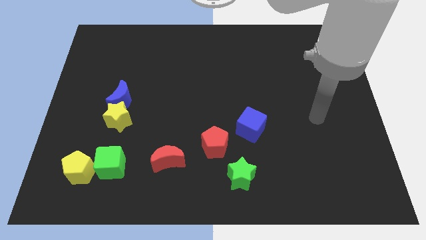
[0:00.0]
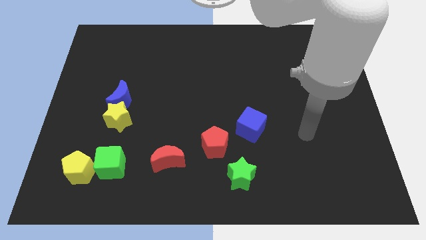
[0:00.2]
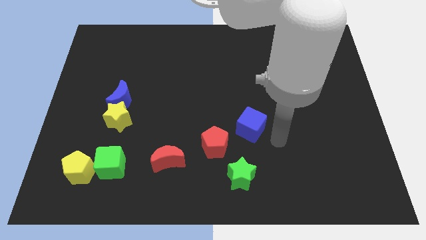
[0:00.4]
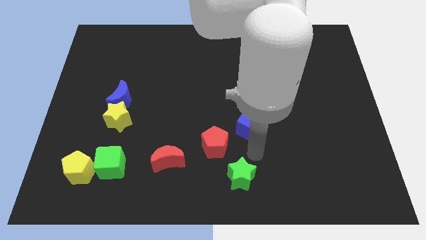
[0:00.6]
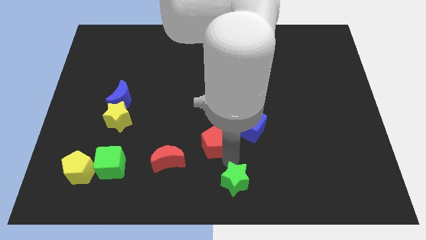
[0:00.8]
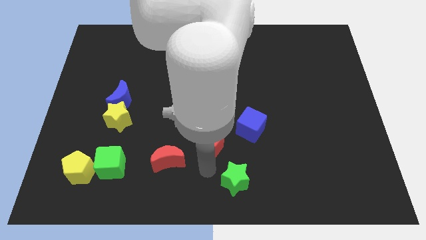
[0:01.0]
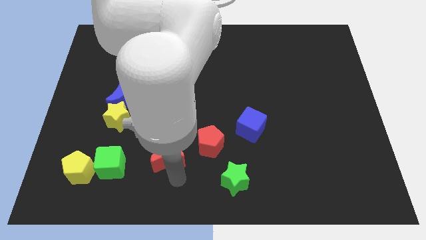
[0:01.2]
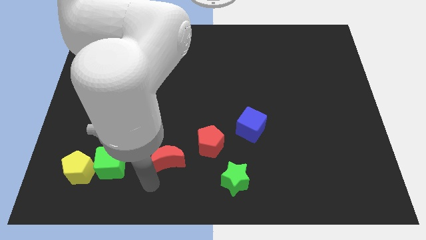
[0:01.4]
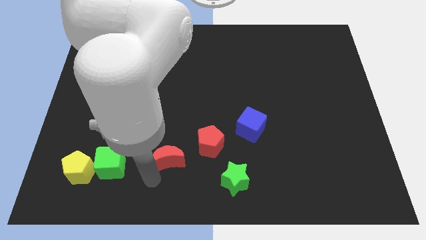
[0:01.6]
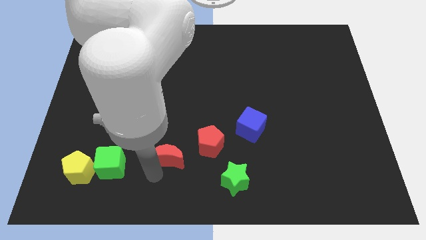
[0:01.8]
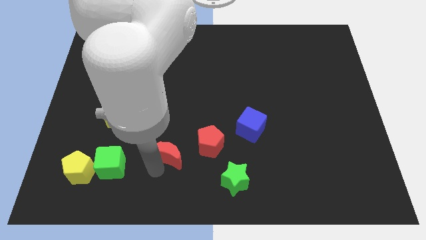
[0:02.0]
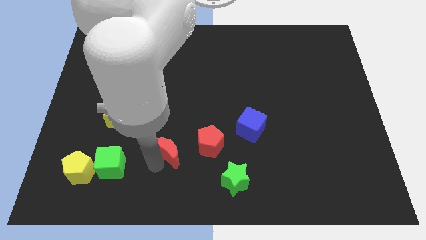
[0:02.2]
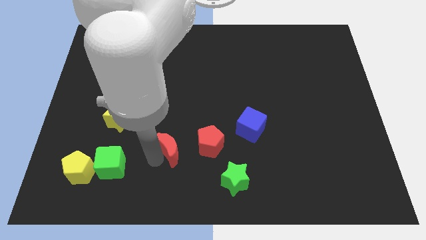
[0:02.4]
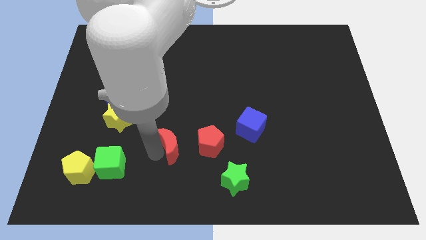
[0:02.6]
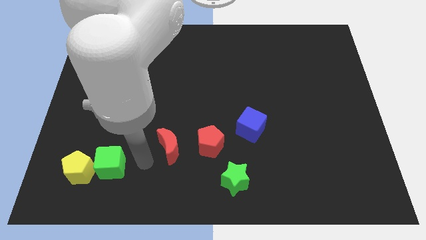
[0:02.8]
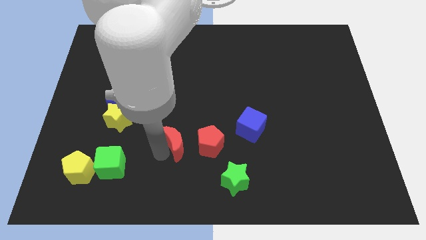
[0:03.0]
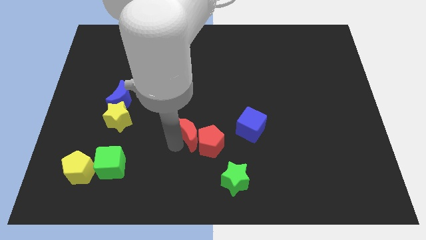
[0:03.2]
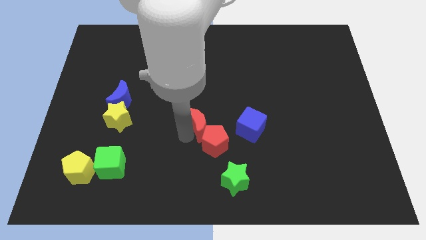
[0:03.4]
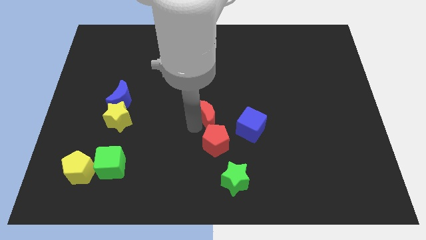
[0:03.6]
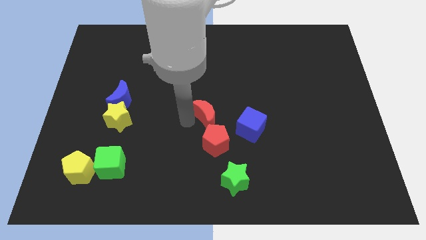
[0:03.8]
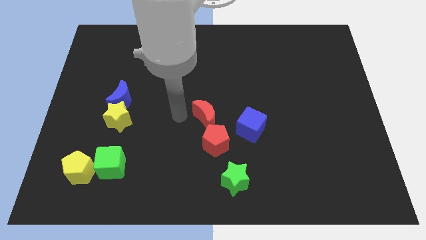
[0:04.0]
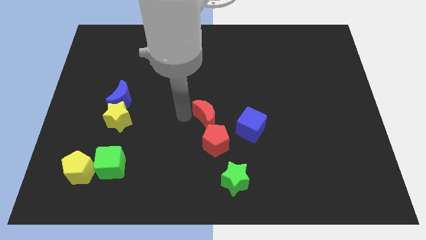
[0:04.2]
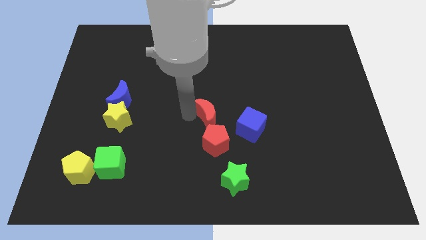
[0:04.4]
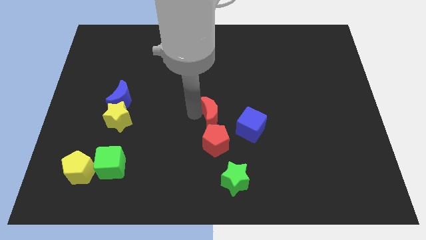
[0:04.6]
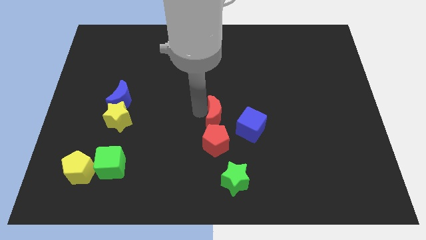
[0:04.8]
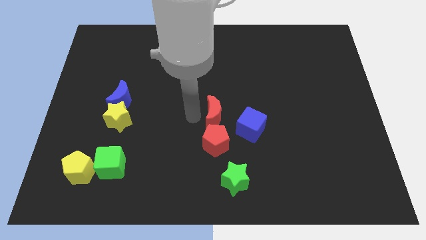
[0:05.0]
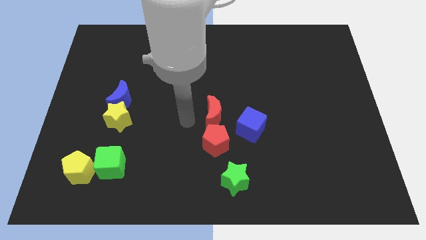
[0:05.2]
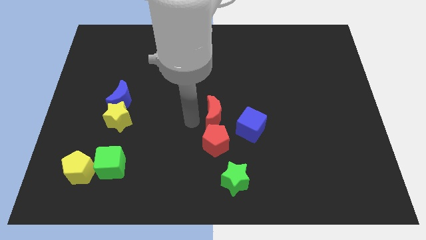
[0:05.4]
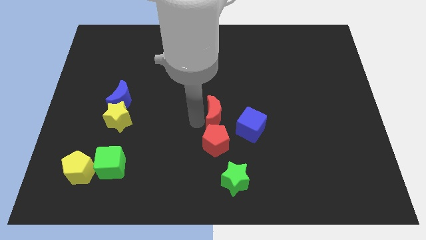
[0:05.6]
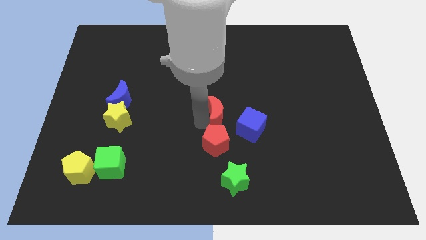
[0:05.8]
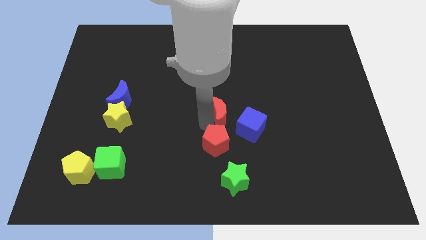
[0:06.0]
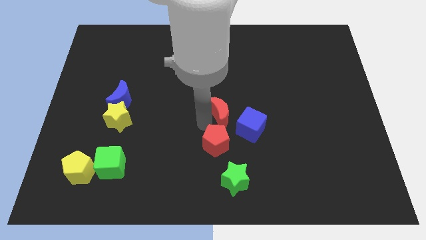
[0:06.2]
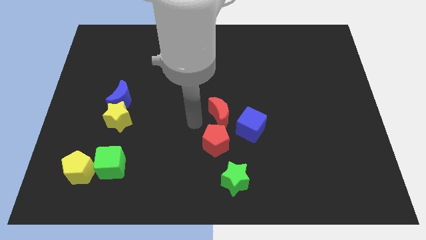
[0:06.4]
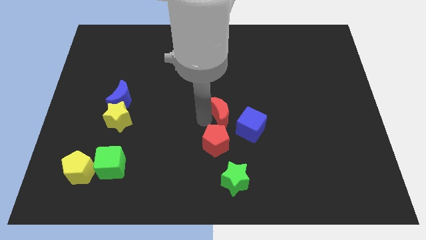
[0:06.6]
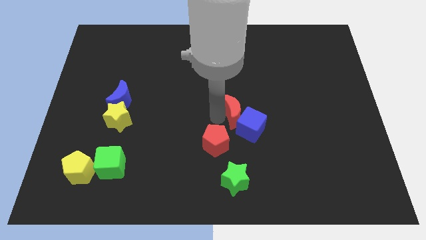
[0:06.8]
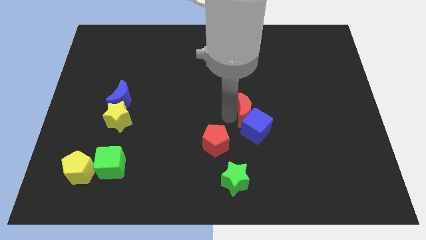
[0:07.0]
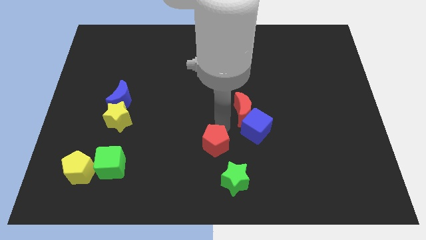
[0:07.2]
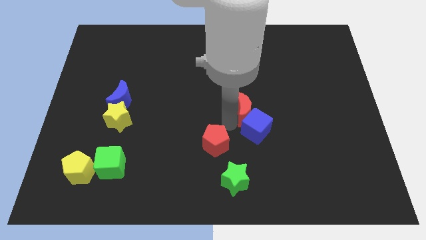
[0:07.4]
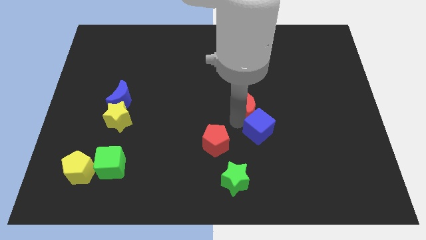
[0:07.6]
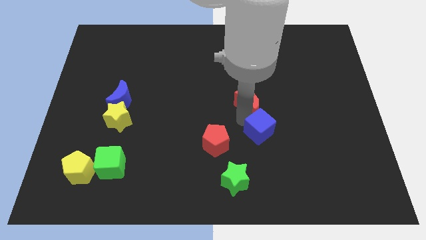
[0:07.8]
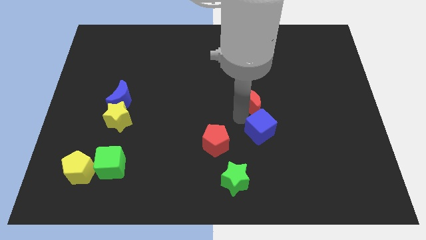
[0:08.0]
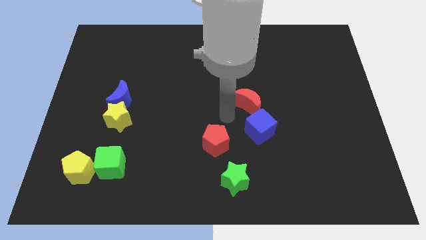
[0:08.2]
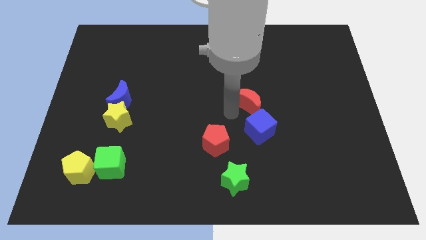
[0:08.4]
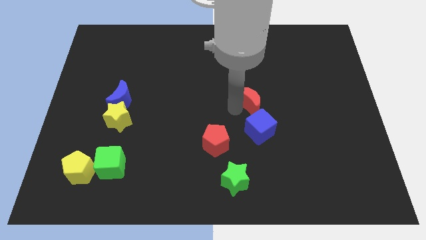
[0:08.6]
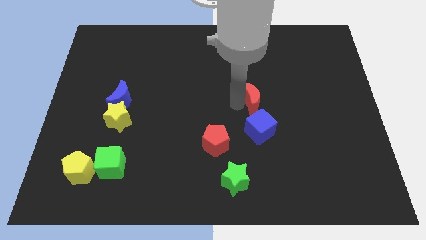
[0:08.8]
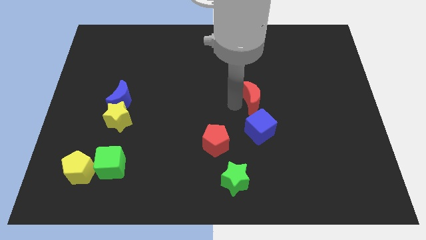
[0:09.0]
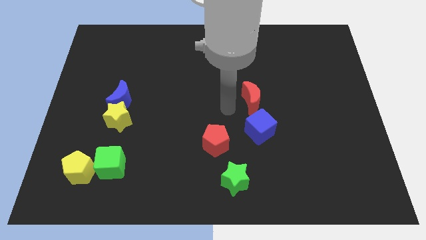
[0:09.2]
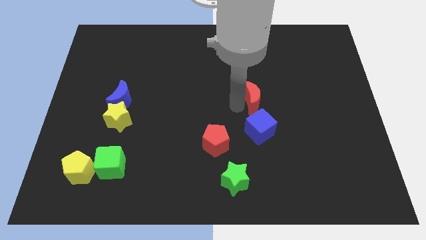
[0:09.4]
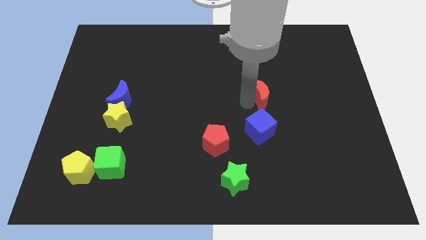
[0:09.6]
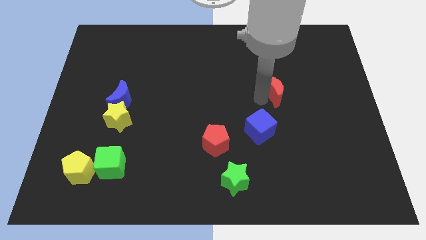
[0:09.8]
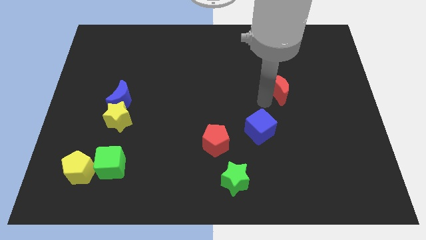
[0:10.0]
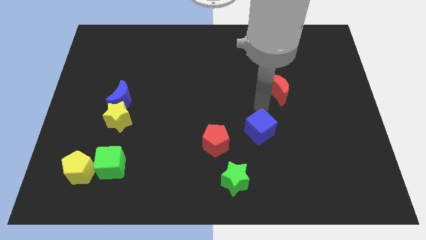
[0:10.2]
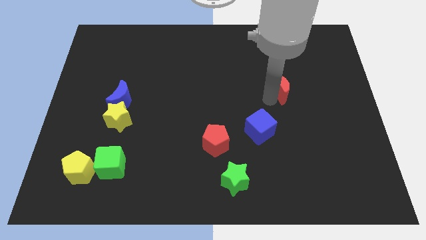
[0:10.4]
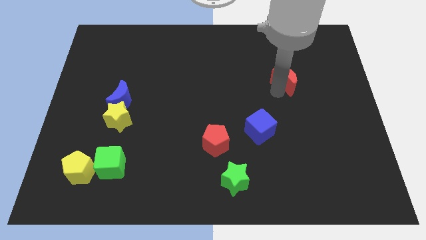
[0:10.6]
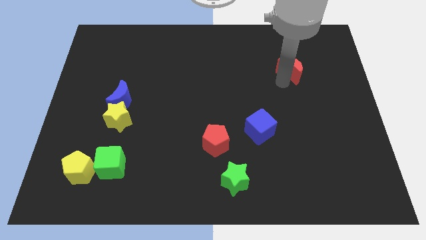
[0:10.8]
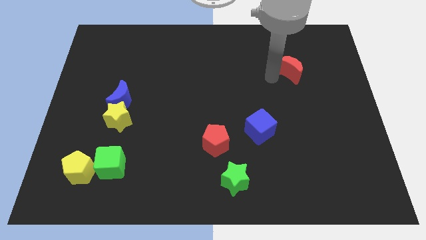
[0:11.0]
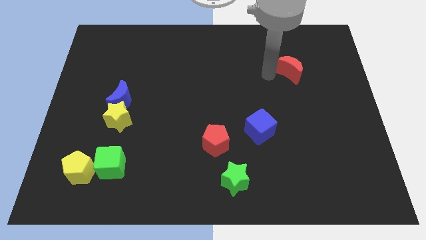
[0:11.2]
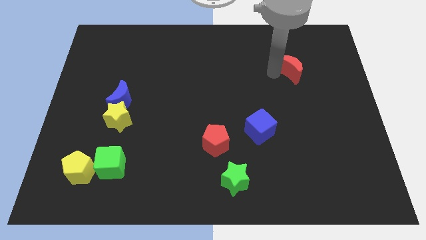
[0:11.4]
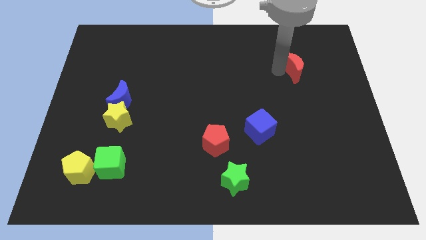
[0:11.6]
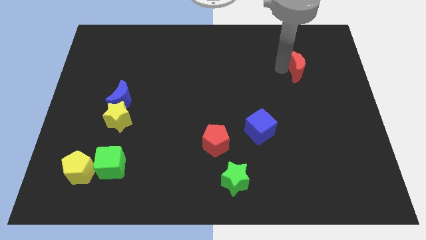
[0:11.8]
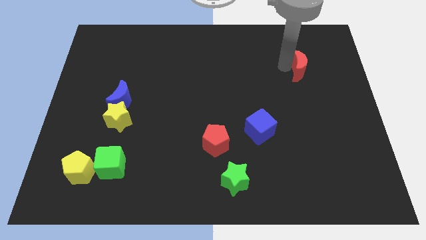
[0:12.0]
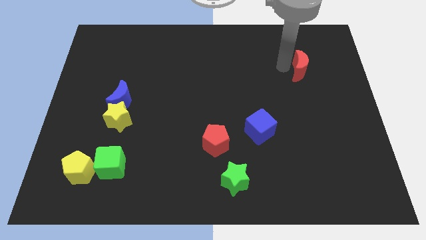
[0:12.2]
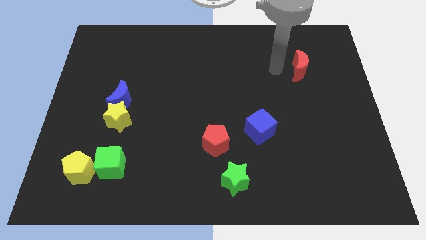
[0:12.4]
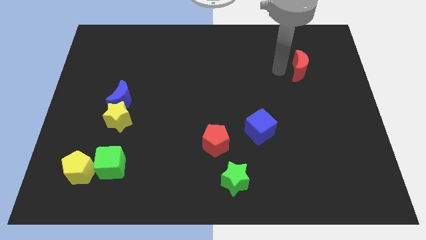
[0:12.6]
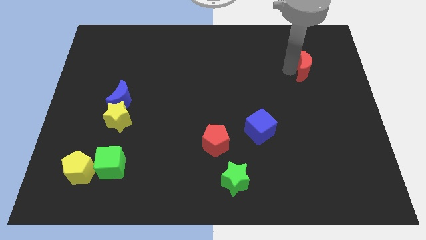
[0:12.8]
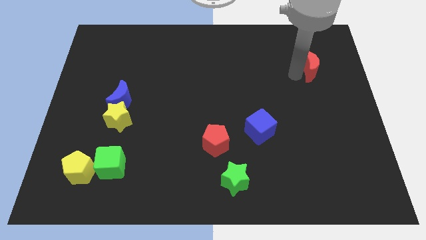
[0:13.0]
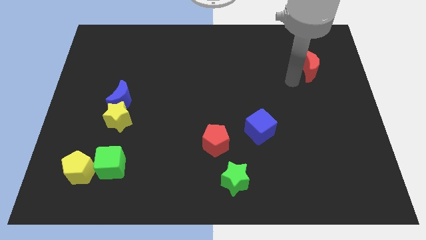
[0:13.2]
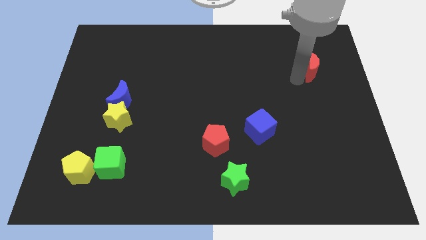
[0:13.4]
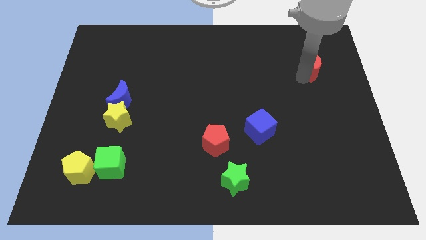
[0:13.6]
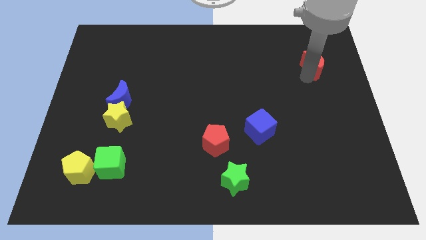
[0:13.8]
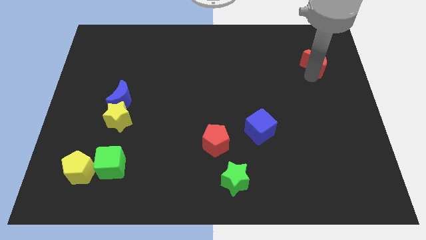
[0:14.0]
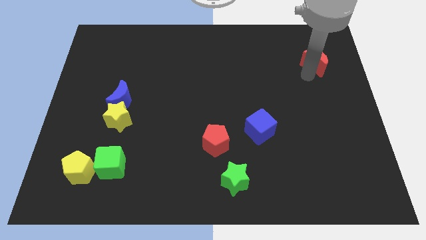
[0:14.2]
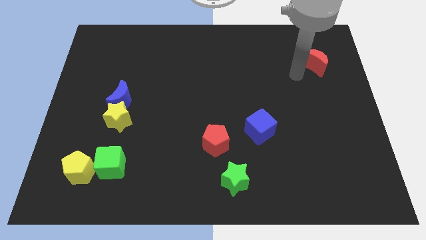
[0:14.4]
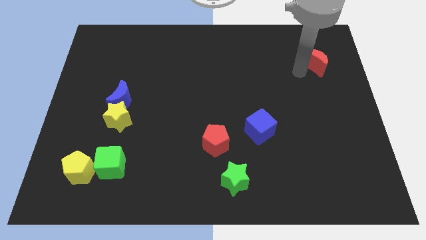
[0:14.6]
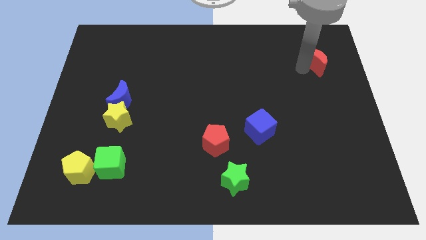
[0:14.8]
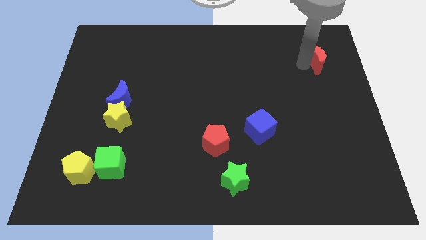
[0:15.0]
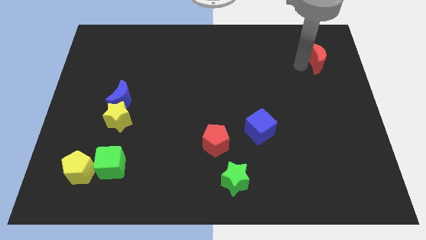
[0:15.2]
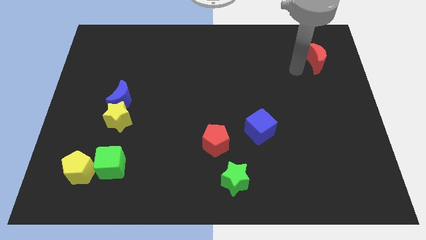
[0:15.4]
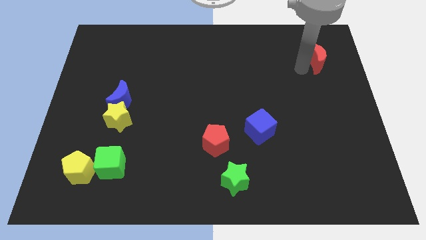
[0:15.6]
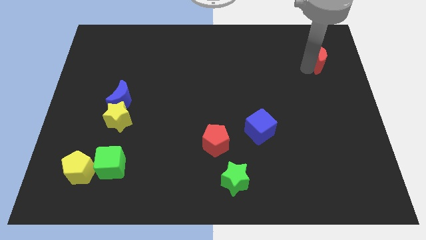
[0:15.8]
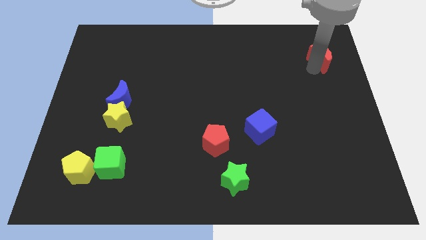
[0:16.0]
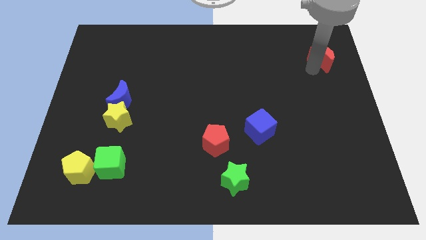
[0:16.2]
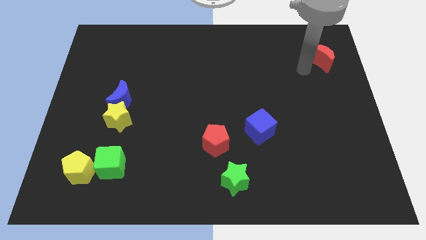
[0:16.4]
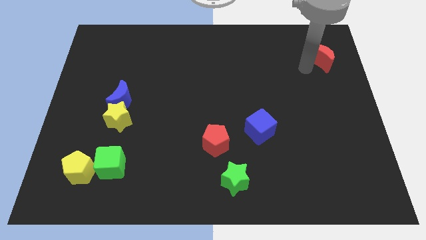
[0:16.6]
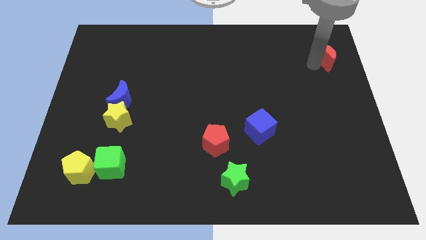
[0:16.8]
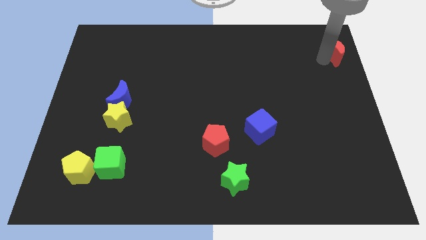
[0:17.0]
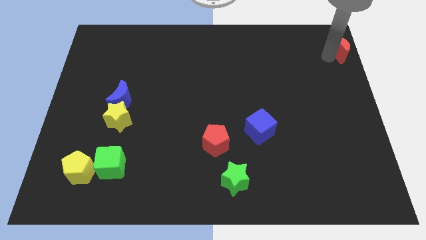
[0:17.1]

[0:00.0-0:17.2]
slide the red moon to the top right
